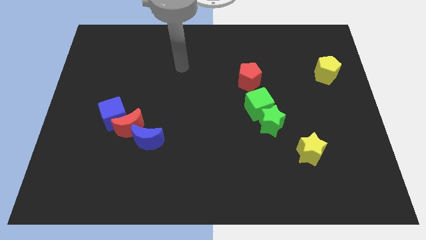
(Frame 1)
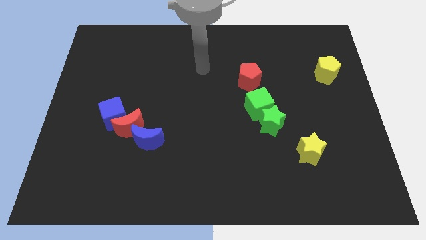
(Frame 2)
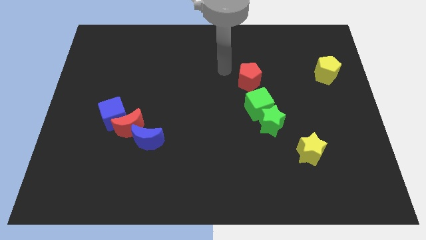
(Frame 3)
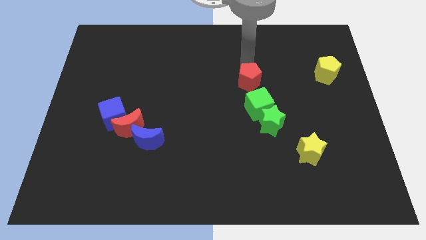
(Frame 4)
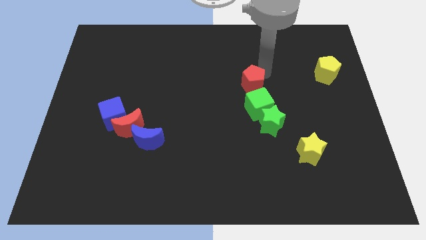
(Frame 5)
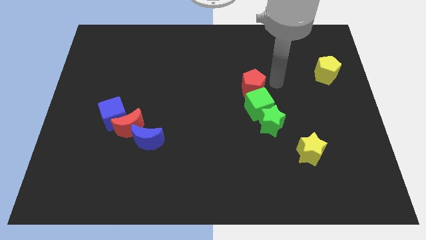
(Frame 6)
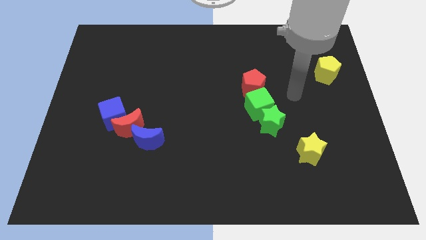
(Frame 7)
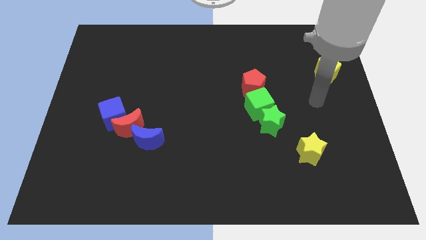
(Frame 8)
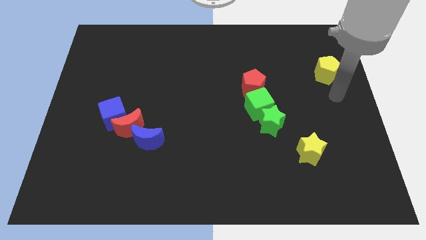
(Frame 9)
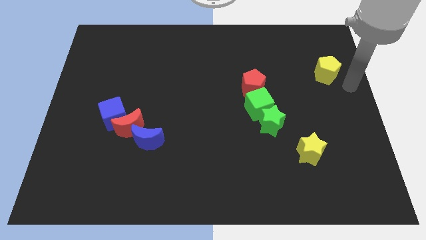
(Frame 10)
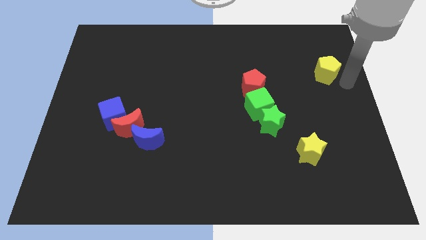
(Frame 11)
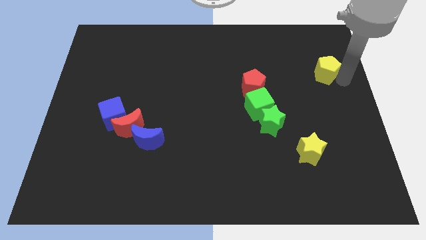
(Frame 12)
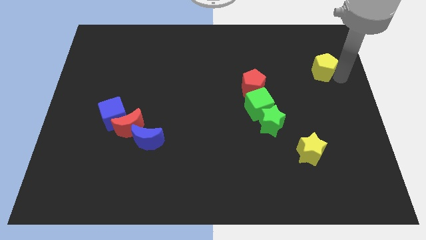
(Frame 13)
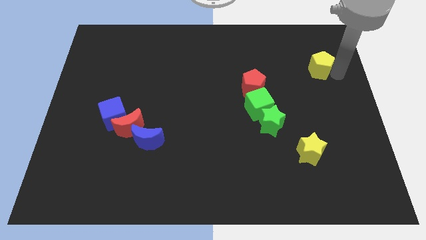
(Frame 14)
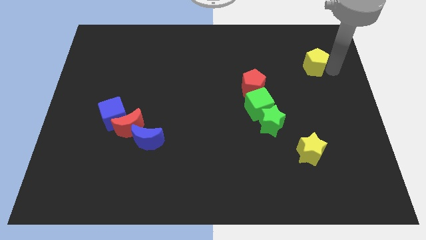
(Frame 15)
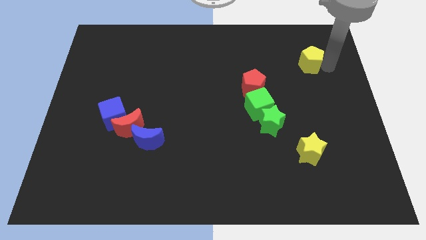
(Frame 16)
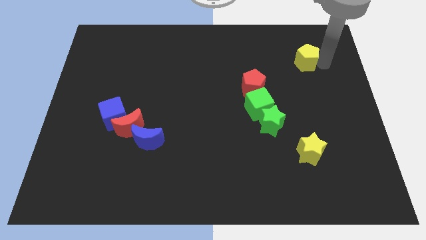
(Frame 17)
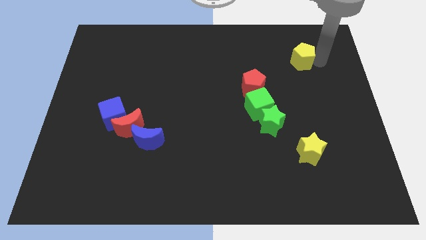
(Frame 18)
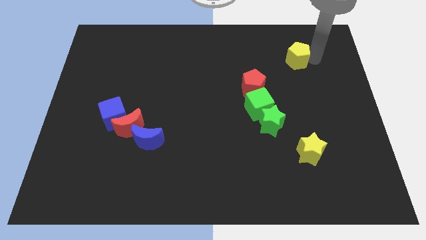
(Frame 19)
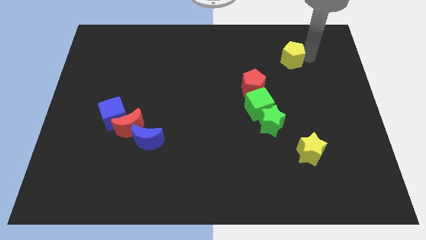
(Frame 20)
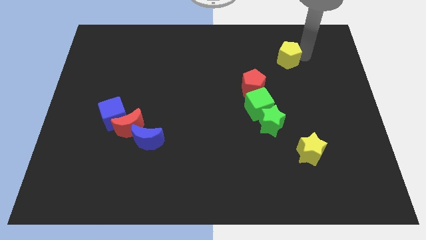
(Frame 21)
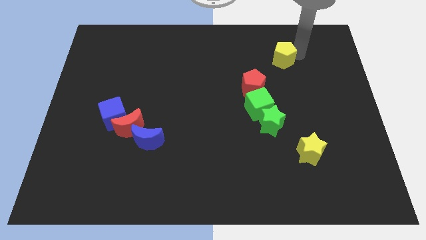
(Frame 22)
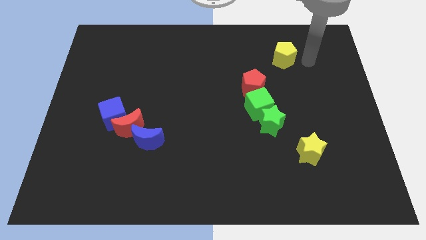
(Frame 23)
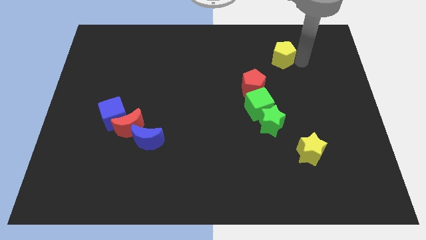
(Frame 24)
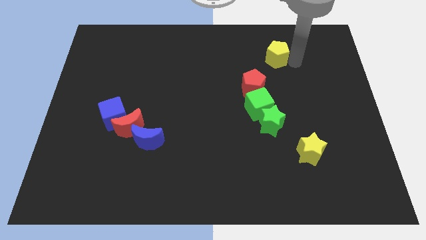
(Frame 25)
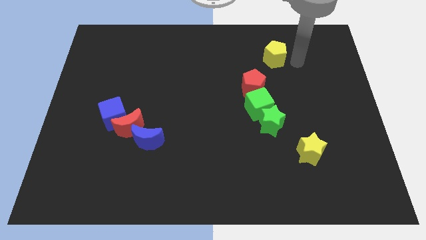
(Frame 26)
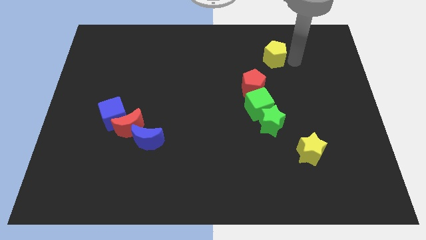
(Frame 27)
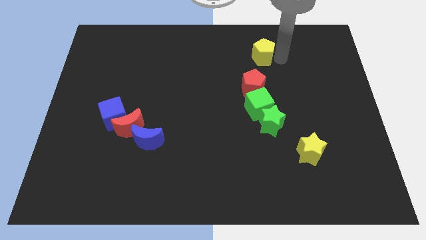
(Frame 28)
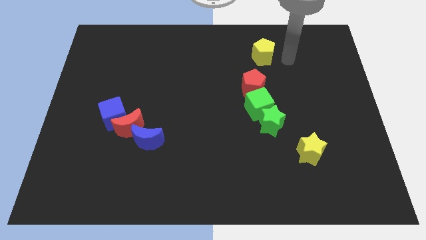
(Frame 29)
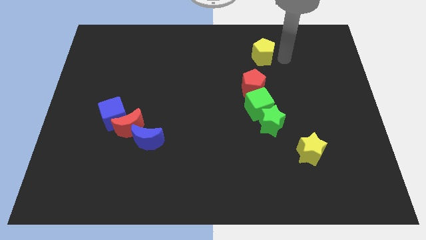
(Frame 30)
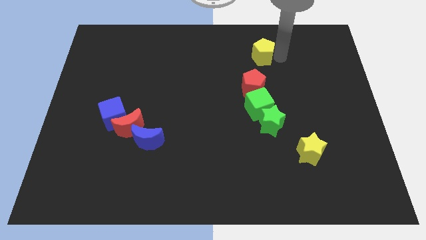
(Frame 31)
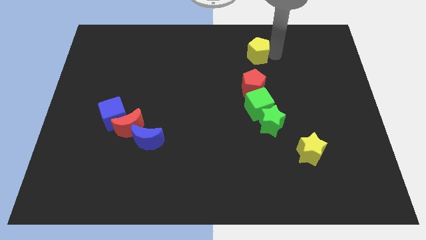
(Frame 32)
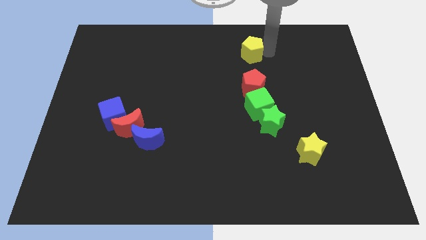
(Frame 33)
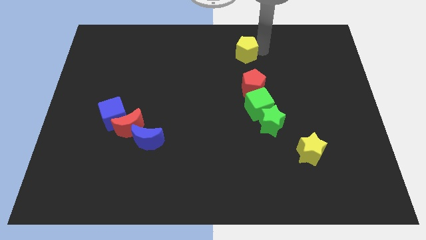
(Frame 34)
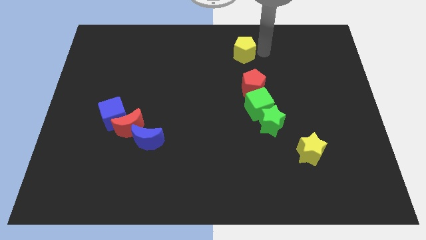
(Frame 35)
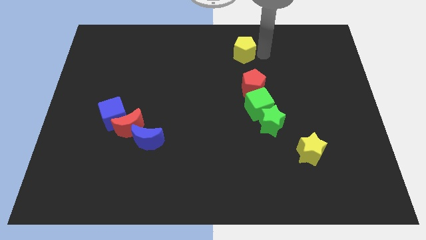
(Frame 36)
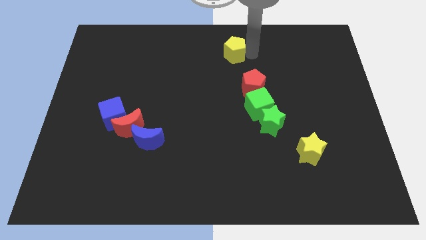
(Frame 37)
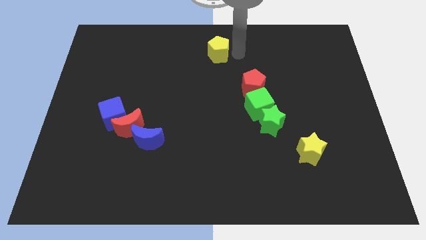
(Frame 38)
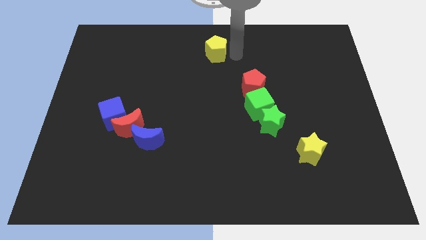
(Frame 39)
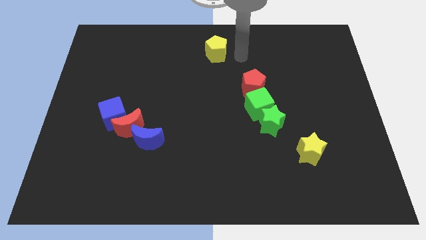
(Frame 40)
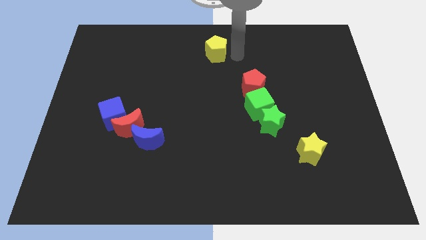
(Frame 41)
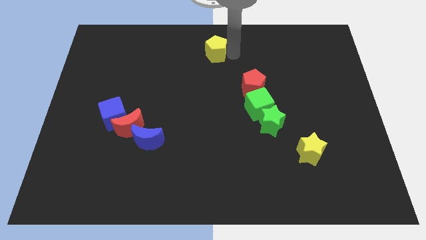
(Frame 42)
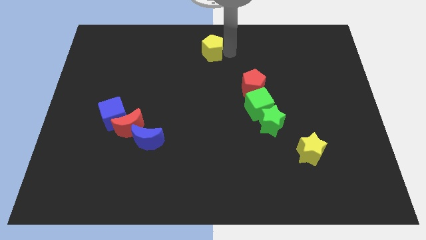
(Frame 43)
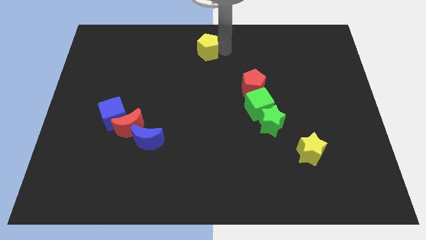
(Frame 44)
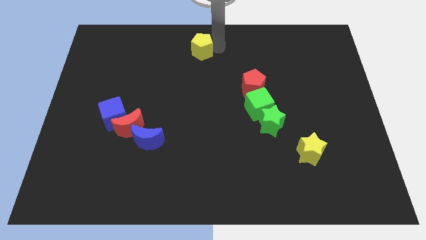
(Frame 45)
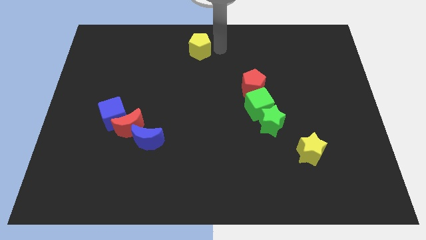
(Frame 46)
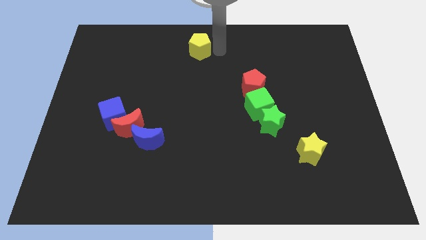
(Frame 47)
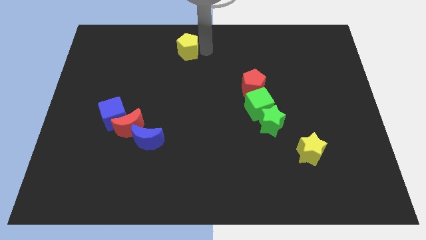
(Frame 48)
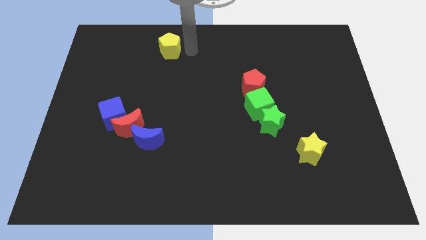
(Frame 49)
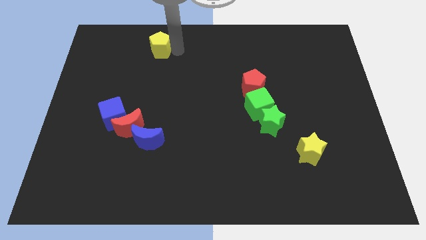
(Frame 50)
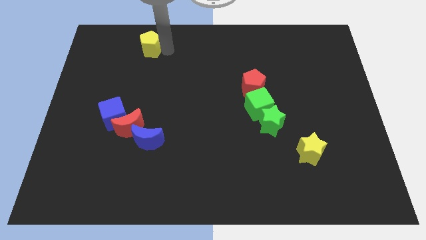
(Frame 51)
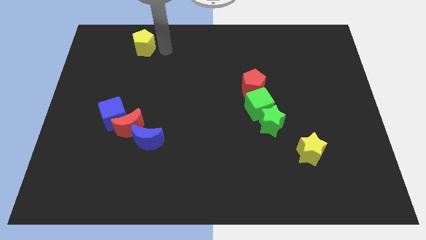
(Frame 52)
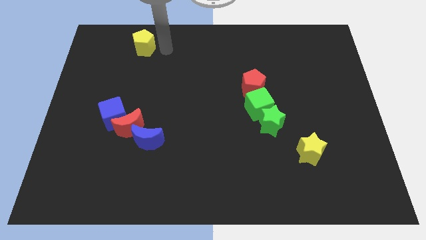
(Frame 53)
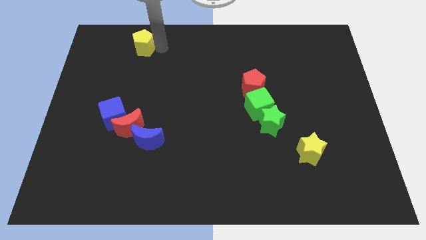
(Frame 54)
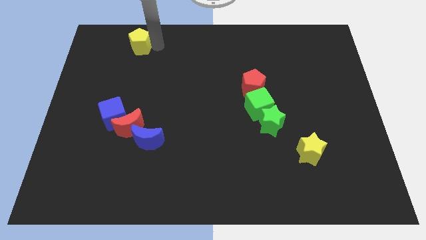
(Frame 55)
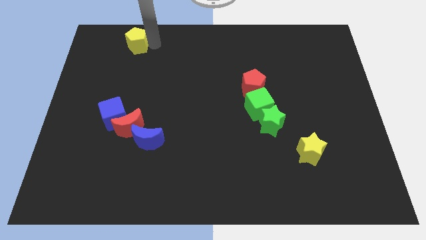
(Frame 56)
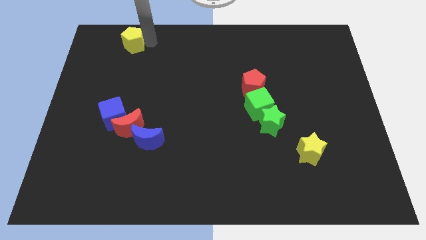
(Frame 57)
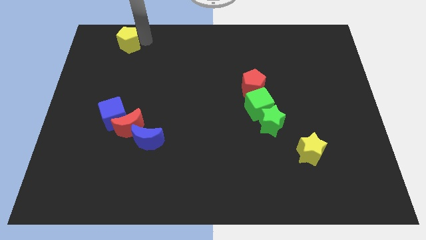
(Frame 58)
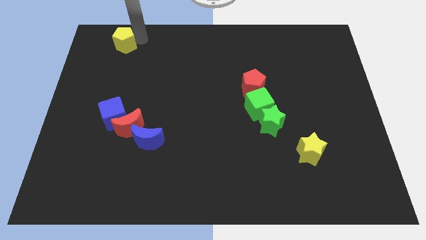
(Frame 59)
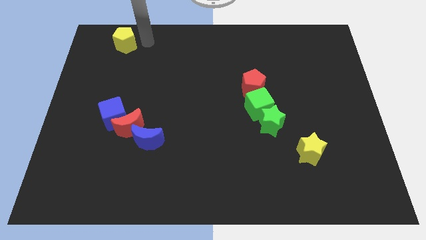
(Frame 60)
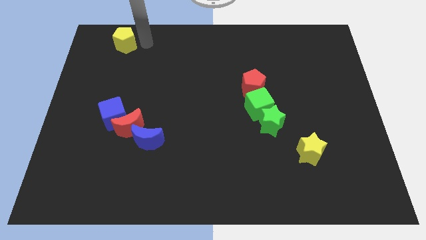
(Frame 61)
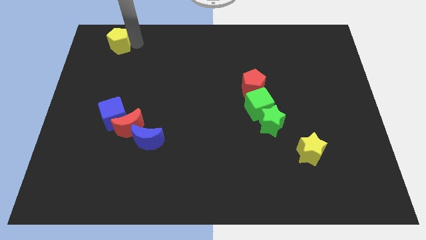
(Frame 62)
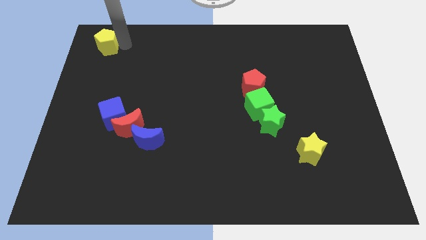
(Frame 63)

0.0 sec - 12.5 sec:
slide the yellow pentagon to the top left corner

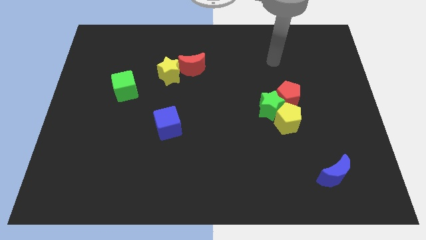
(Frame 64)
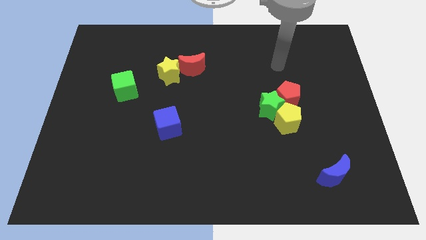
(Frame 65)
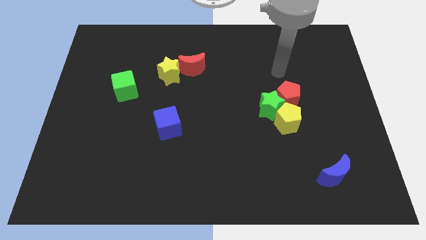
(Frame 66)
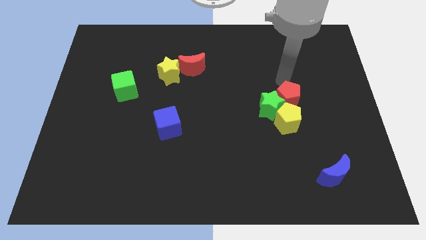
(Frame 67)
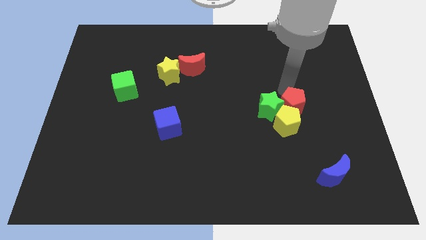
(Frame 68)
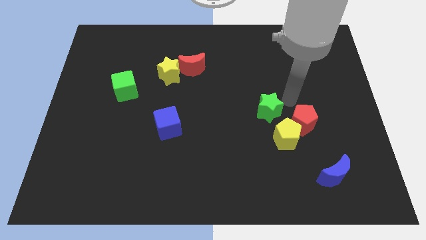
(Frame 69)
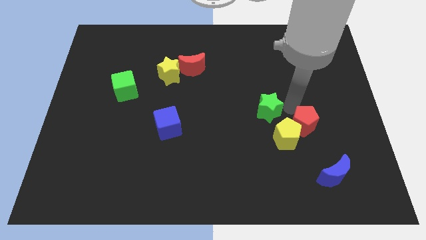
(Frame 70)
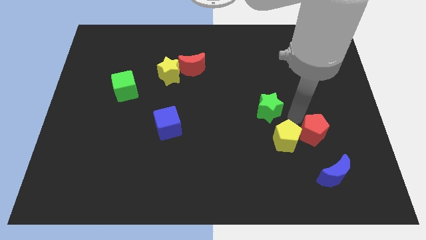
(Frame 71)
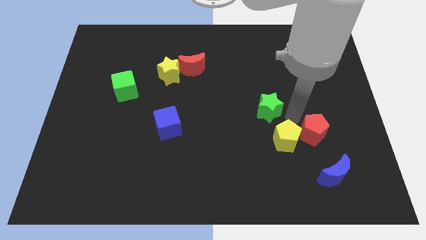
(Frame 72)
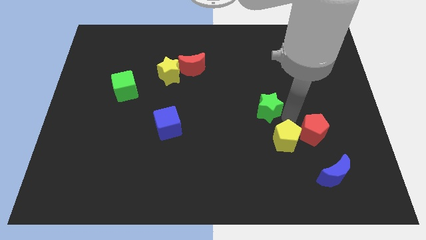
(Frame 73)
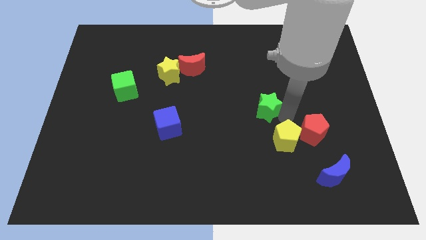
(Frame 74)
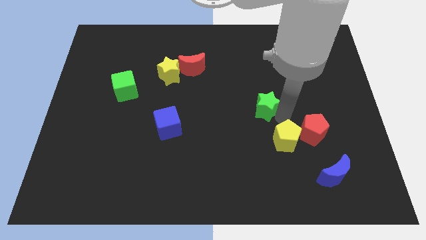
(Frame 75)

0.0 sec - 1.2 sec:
slide the green star to the middle of the board
